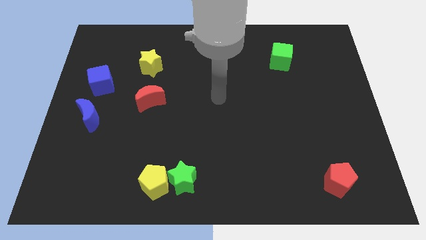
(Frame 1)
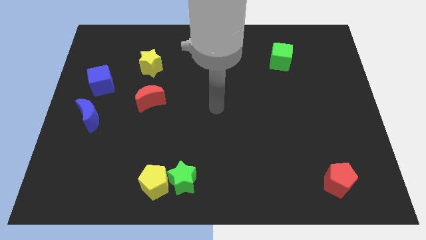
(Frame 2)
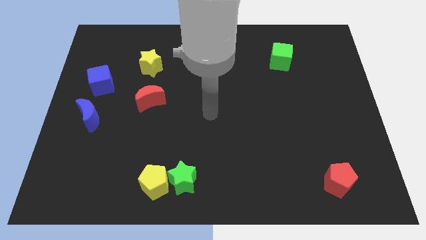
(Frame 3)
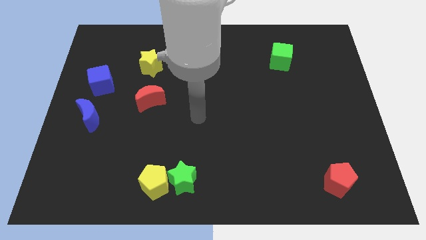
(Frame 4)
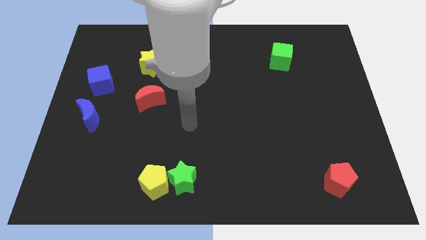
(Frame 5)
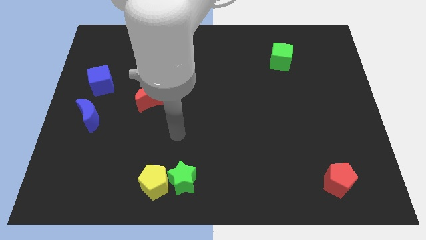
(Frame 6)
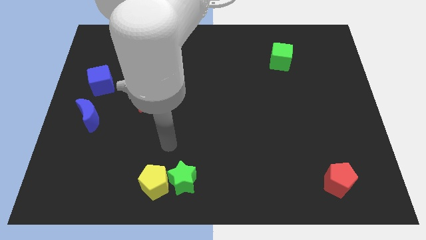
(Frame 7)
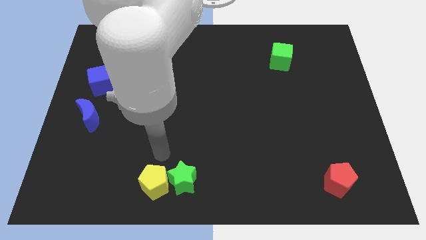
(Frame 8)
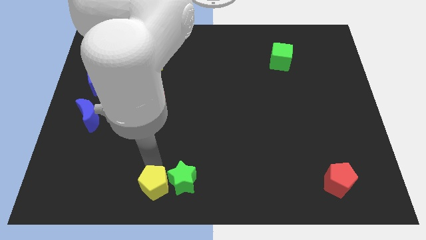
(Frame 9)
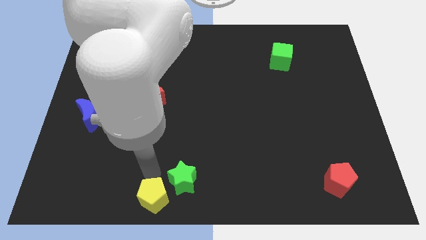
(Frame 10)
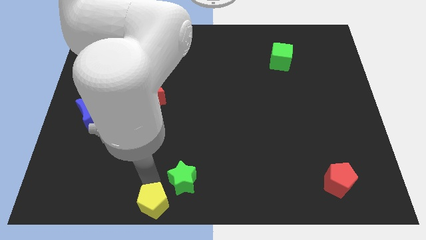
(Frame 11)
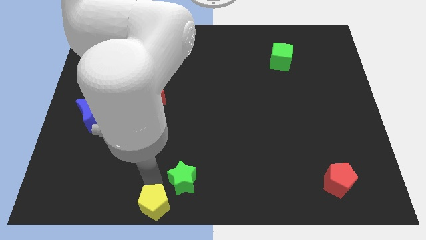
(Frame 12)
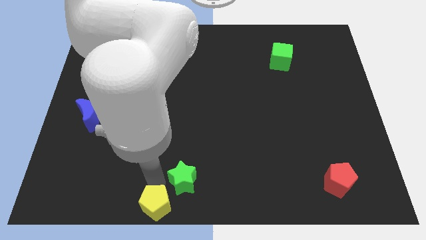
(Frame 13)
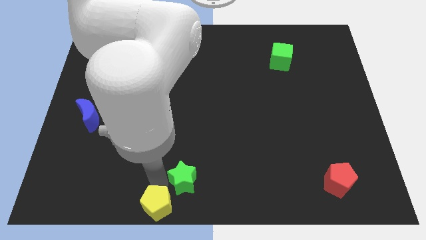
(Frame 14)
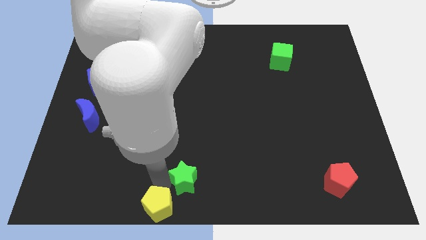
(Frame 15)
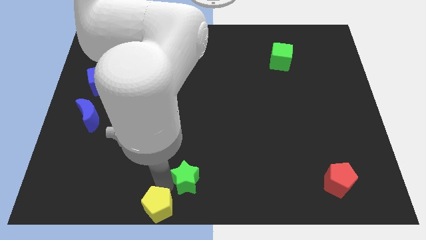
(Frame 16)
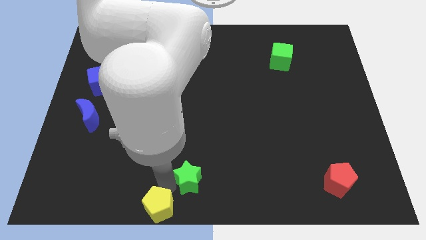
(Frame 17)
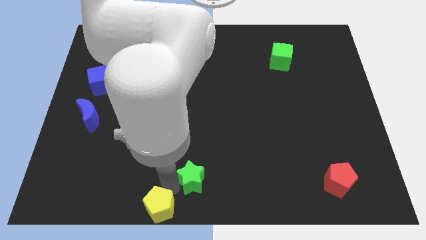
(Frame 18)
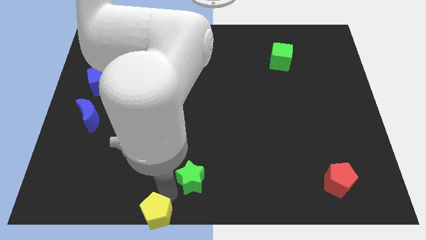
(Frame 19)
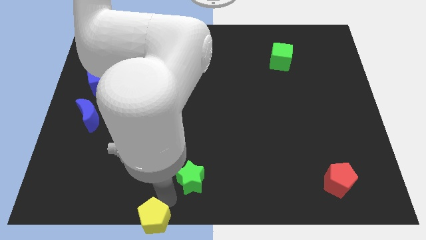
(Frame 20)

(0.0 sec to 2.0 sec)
move the green star away from the yellow pentagon

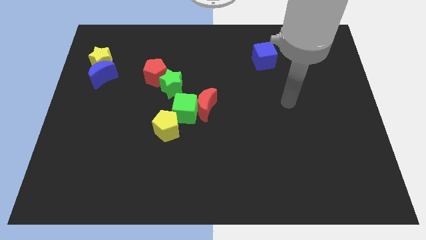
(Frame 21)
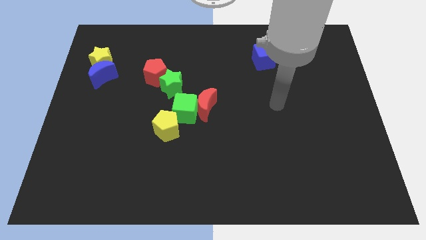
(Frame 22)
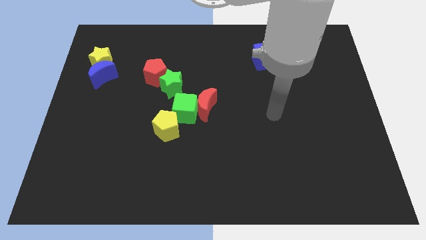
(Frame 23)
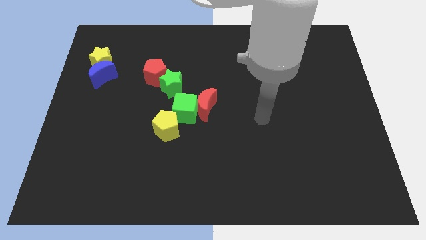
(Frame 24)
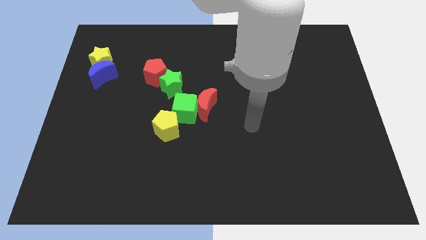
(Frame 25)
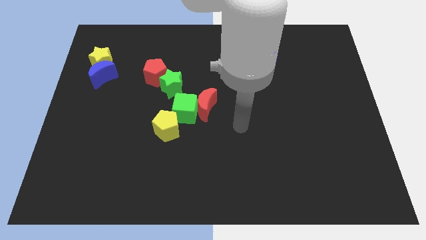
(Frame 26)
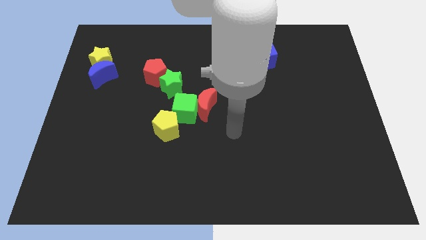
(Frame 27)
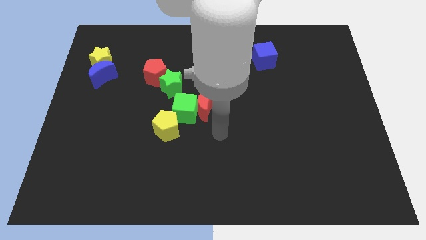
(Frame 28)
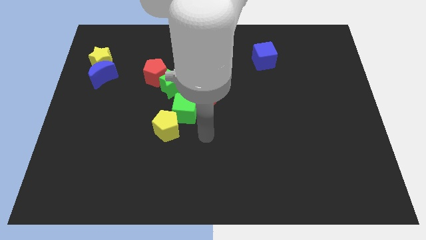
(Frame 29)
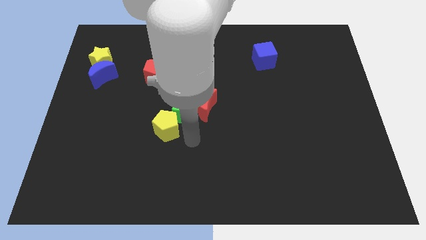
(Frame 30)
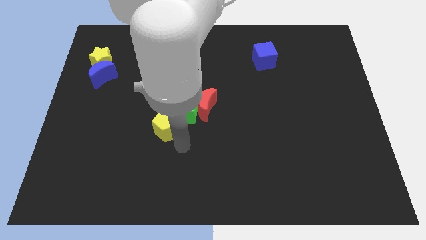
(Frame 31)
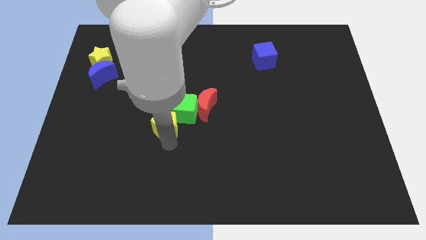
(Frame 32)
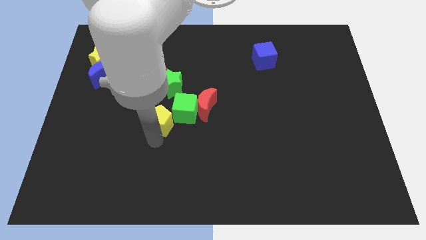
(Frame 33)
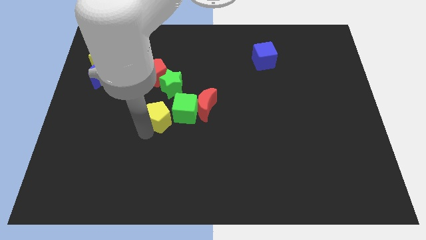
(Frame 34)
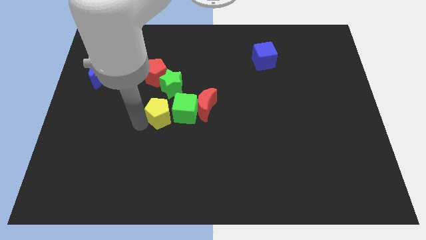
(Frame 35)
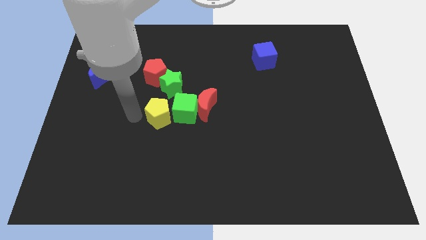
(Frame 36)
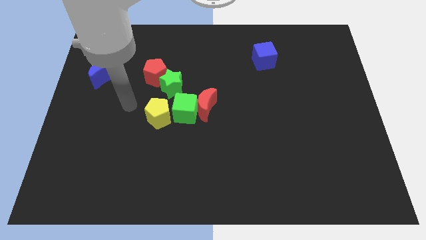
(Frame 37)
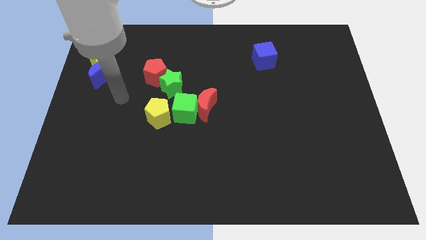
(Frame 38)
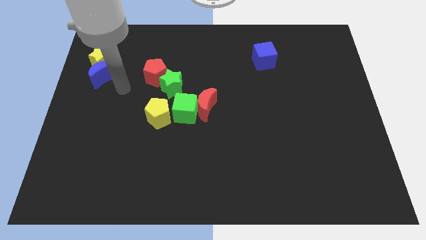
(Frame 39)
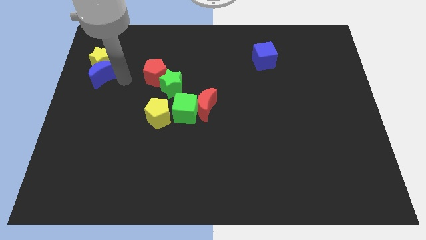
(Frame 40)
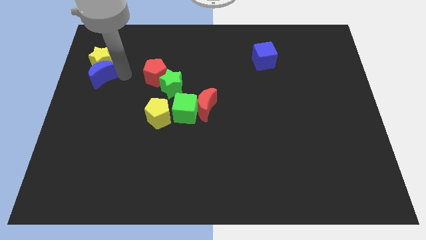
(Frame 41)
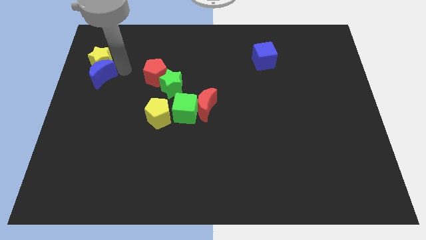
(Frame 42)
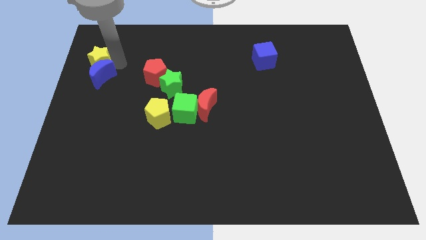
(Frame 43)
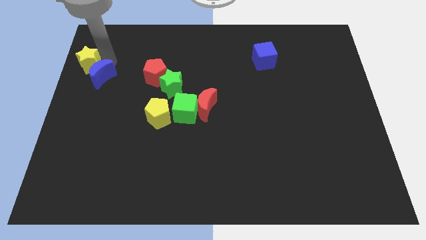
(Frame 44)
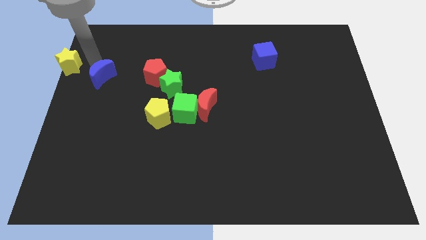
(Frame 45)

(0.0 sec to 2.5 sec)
pull the blue moon apart from the yellow star

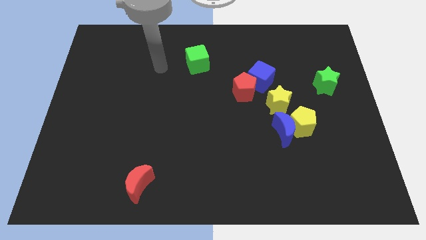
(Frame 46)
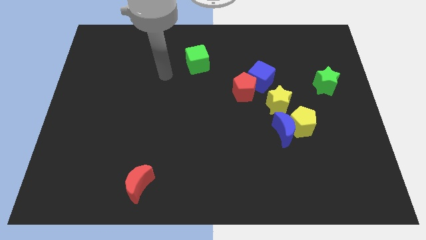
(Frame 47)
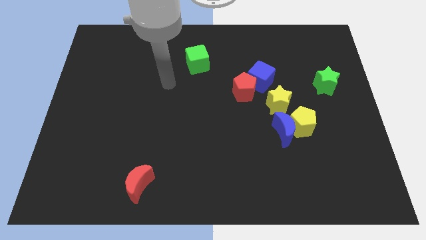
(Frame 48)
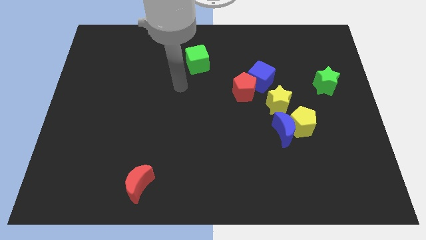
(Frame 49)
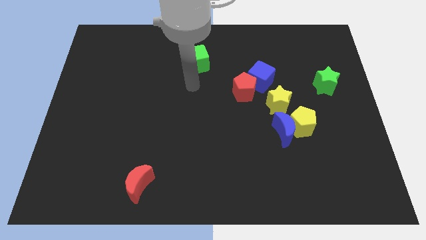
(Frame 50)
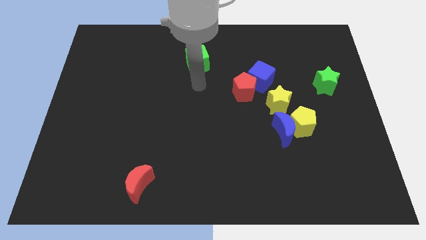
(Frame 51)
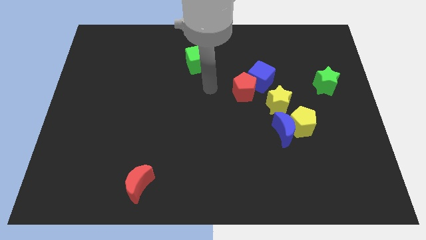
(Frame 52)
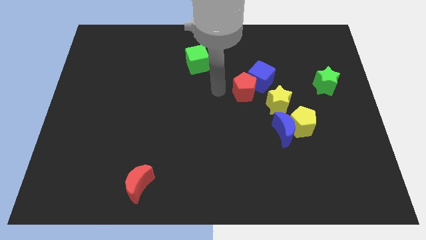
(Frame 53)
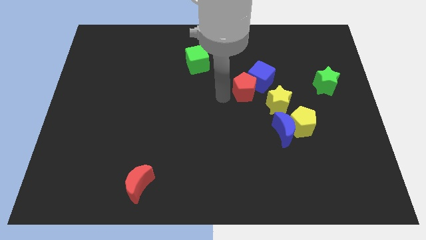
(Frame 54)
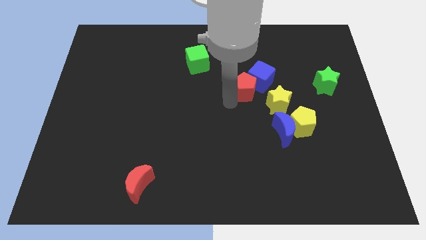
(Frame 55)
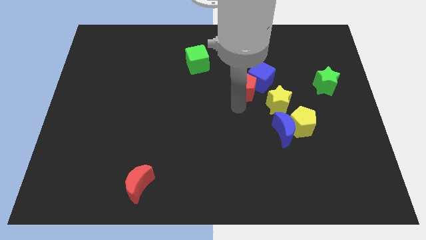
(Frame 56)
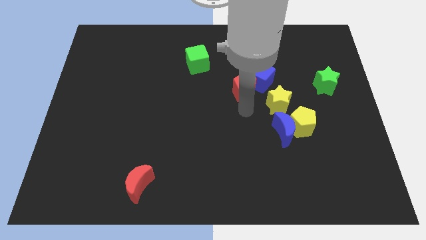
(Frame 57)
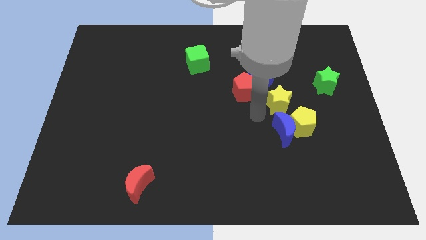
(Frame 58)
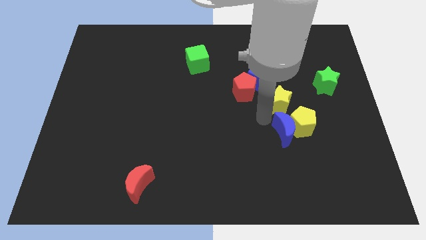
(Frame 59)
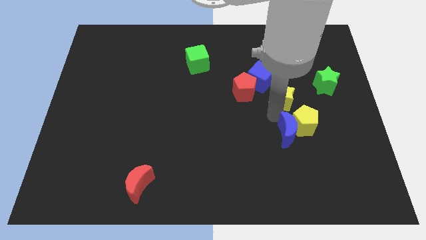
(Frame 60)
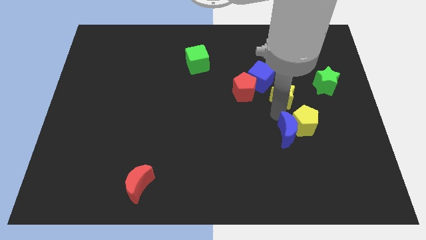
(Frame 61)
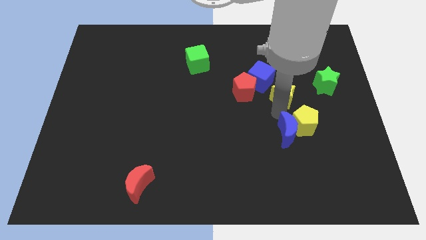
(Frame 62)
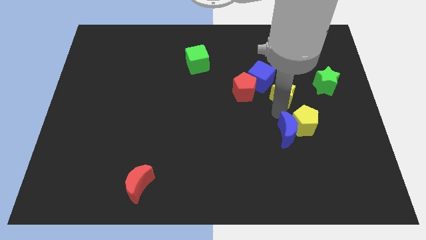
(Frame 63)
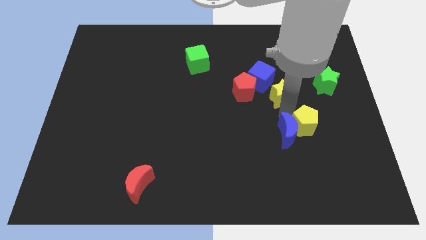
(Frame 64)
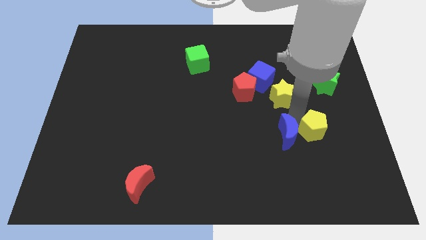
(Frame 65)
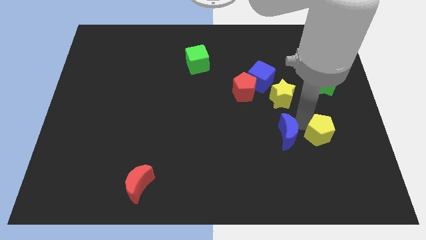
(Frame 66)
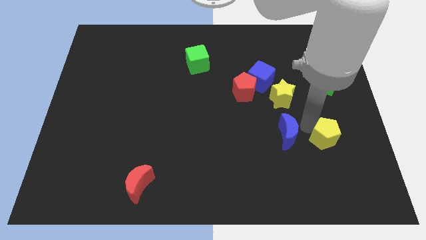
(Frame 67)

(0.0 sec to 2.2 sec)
move the yellow pentagon away from the blue moon and yellow star

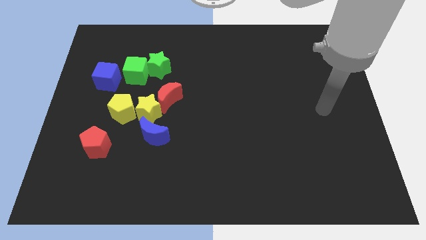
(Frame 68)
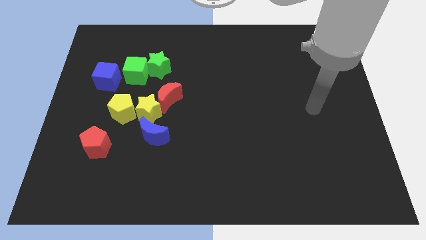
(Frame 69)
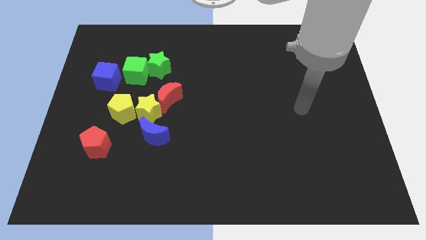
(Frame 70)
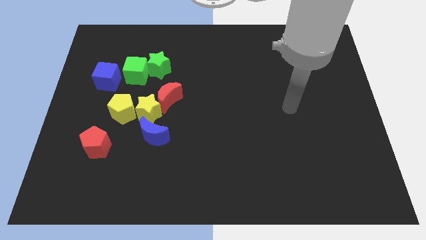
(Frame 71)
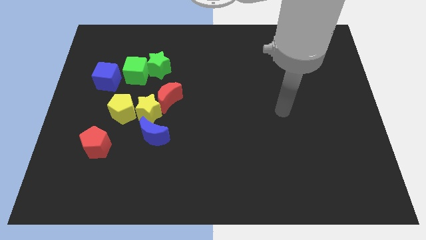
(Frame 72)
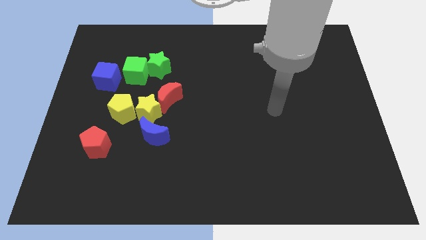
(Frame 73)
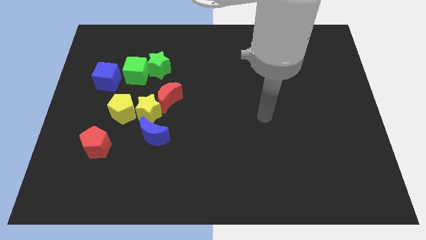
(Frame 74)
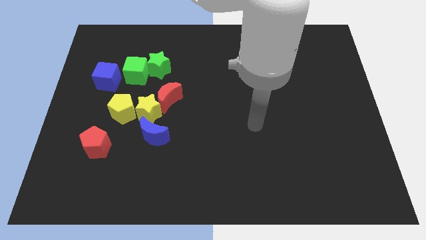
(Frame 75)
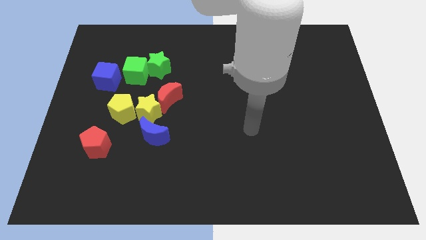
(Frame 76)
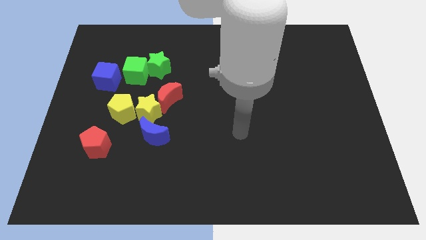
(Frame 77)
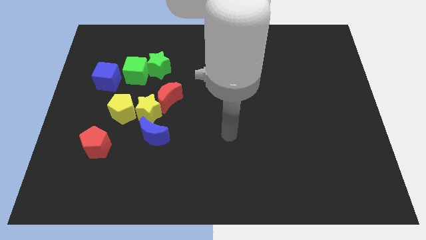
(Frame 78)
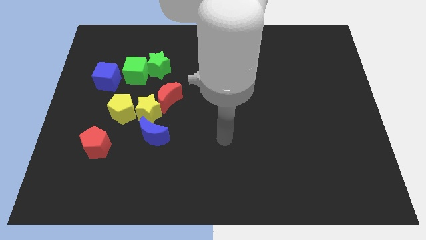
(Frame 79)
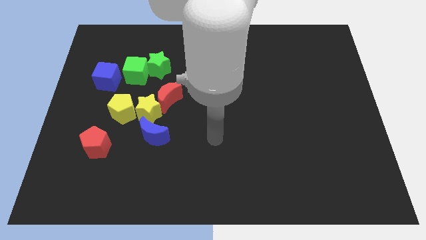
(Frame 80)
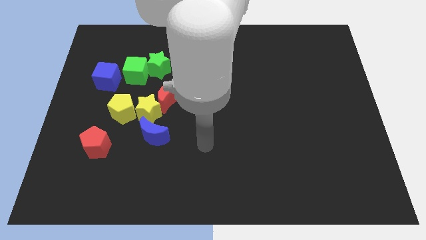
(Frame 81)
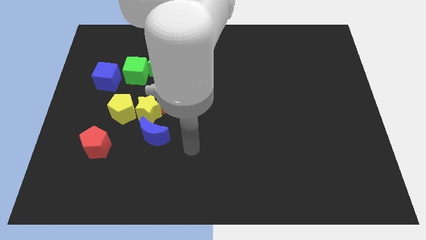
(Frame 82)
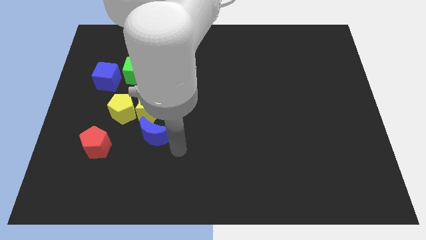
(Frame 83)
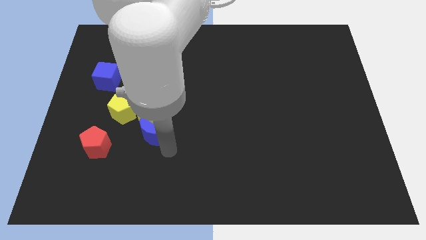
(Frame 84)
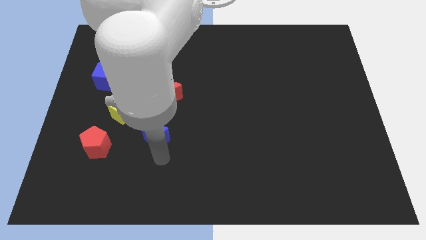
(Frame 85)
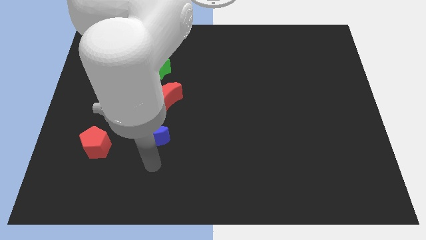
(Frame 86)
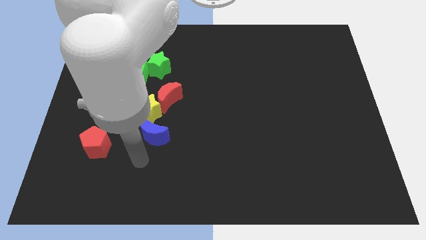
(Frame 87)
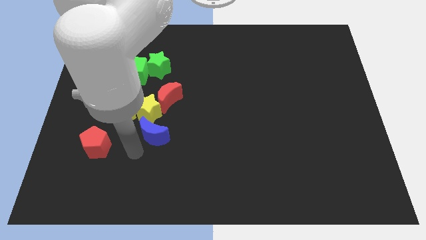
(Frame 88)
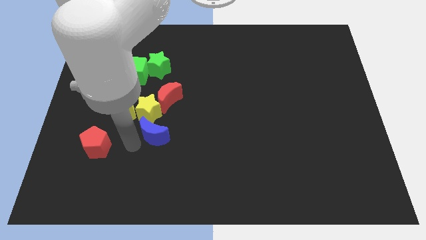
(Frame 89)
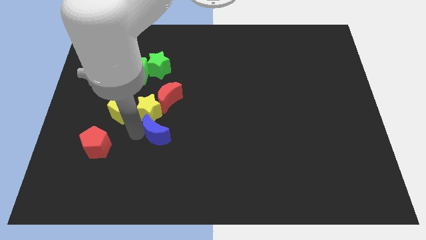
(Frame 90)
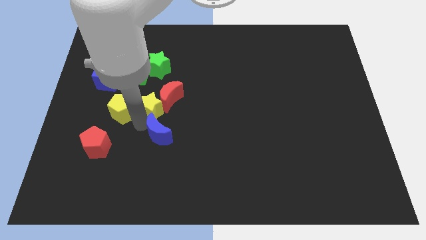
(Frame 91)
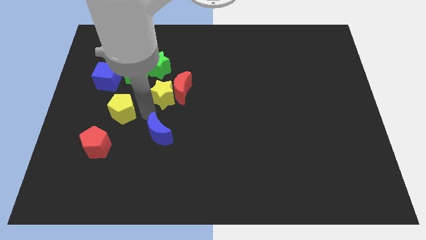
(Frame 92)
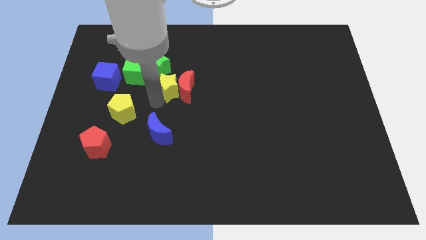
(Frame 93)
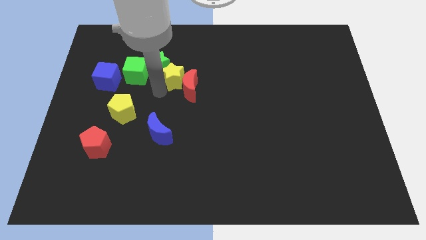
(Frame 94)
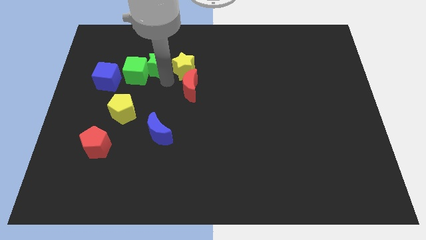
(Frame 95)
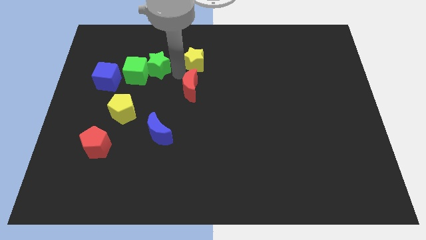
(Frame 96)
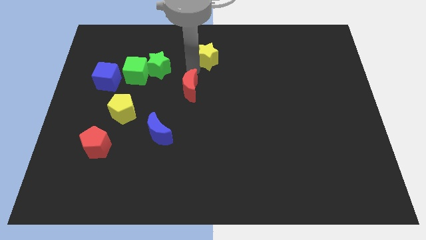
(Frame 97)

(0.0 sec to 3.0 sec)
separate the red moon from the yellow star
